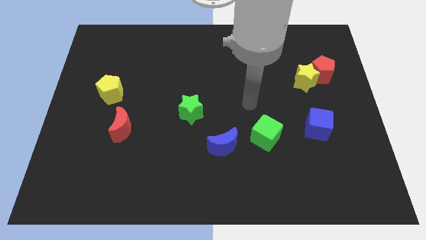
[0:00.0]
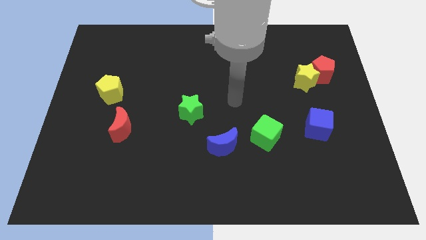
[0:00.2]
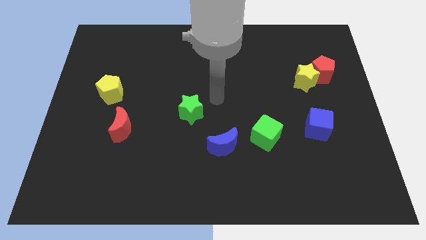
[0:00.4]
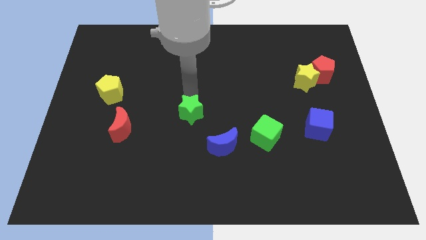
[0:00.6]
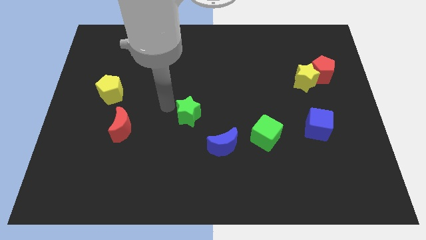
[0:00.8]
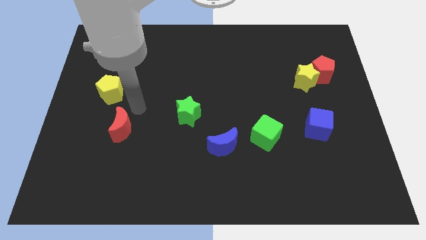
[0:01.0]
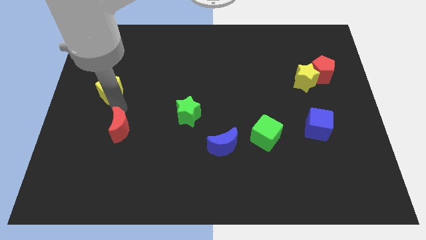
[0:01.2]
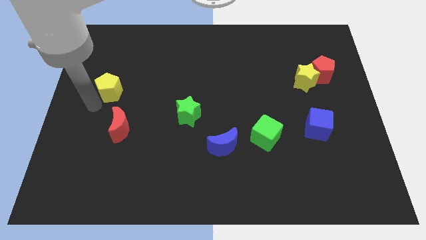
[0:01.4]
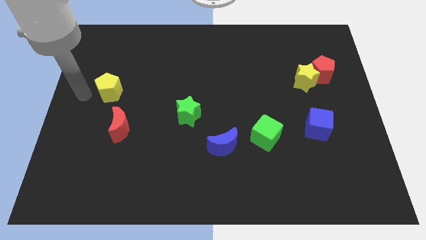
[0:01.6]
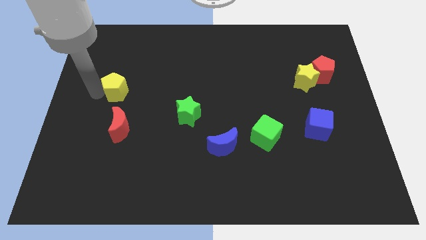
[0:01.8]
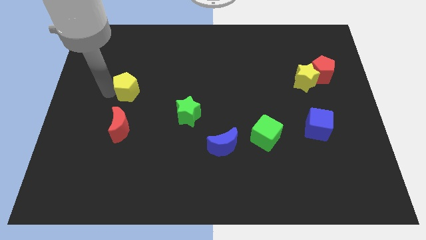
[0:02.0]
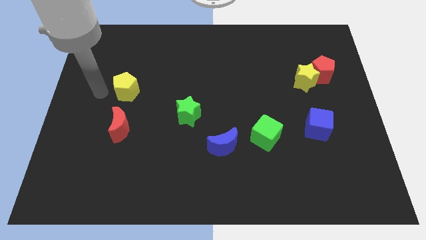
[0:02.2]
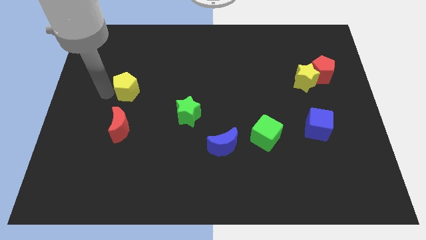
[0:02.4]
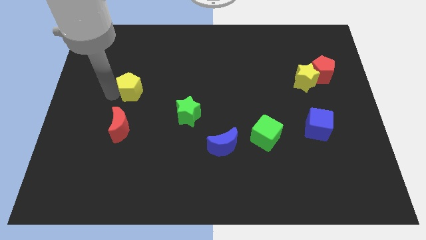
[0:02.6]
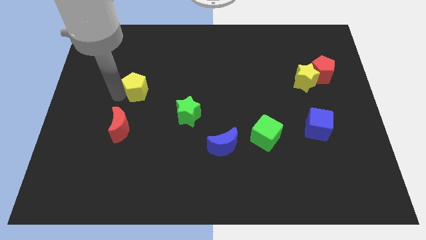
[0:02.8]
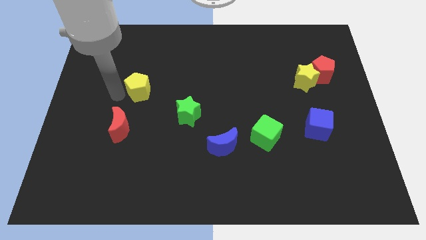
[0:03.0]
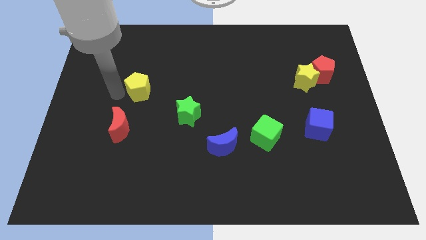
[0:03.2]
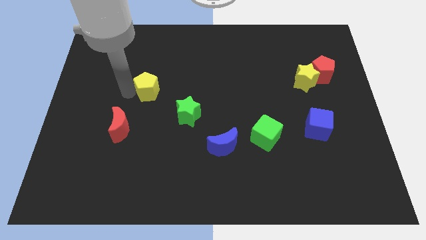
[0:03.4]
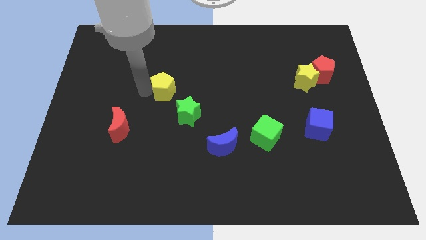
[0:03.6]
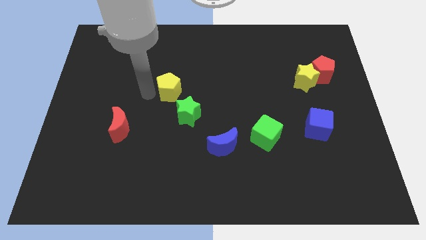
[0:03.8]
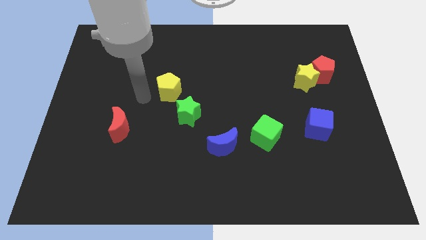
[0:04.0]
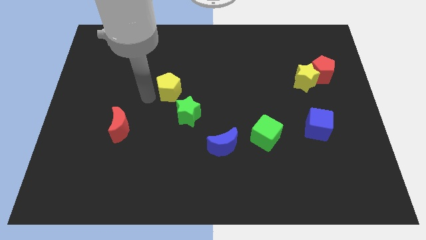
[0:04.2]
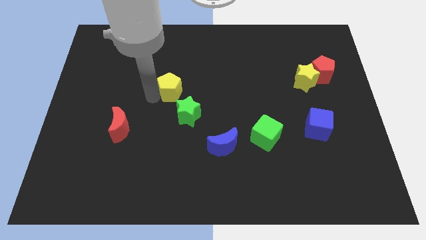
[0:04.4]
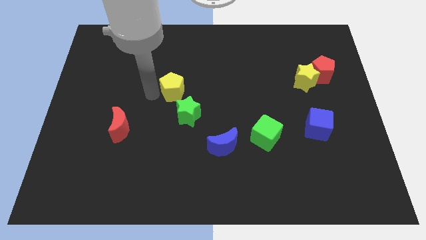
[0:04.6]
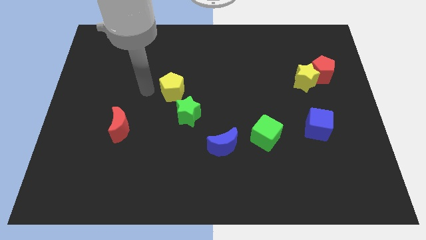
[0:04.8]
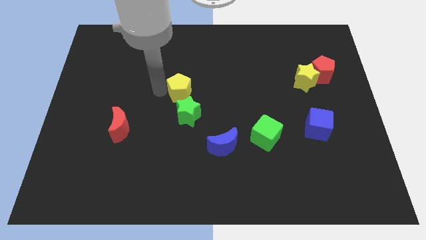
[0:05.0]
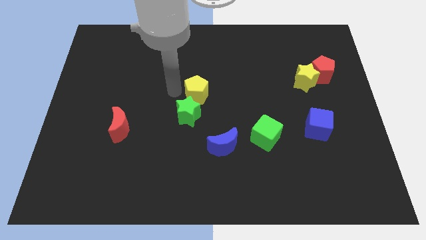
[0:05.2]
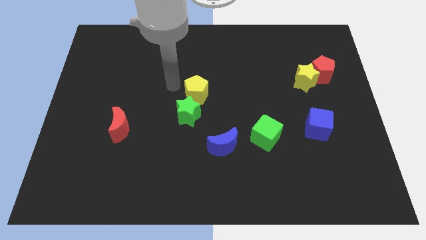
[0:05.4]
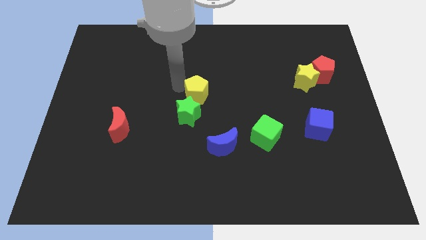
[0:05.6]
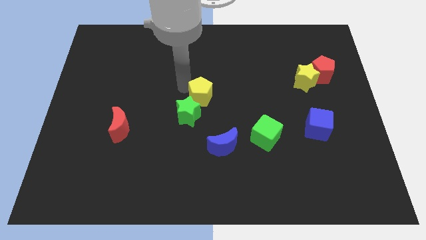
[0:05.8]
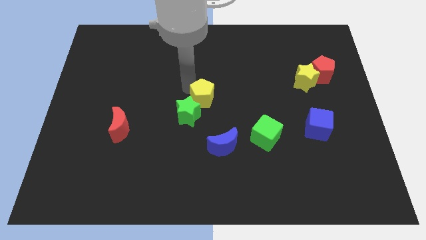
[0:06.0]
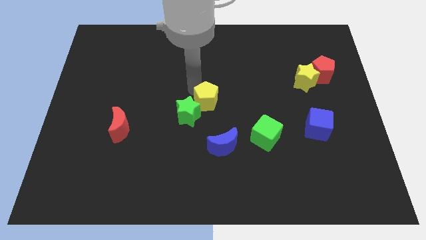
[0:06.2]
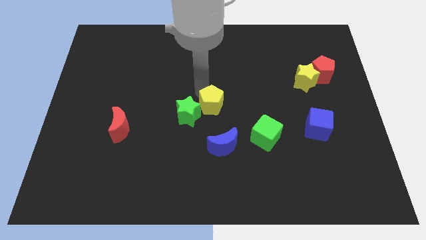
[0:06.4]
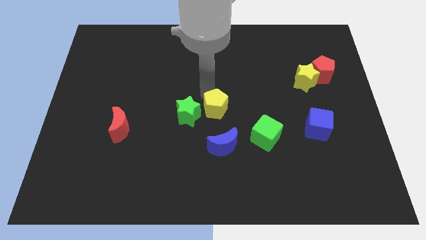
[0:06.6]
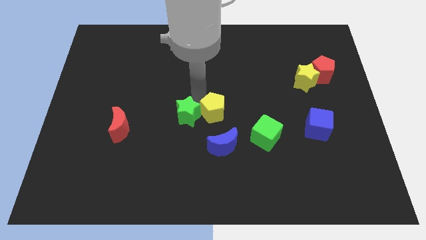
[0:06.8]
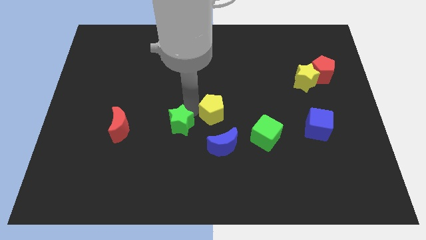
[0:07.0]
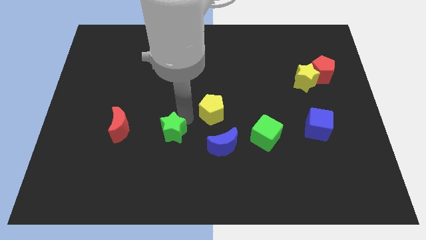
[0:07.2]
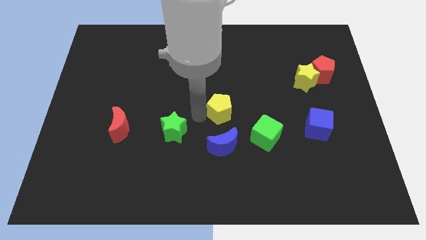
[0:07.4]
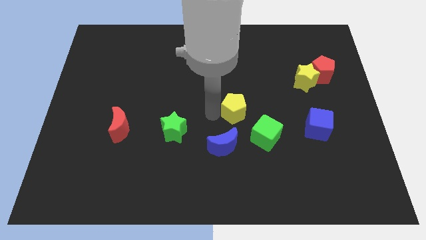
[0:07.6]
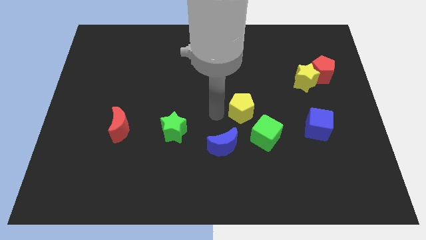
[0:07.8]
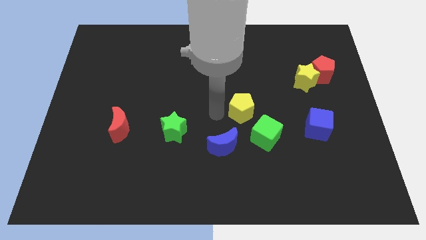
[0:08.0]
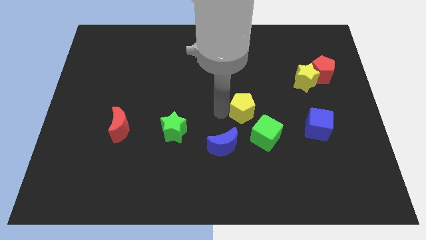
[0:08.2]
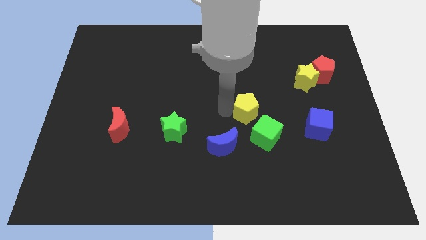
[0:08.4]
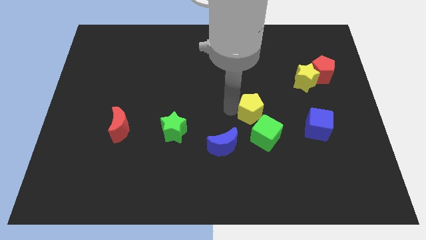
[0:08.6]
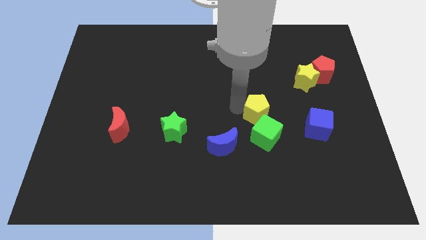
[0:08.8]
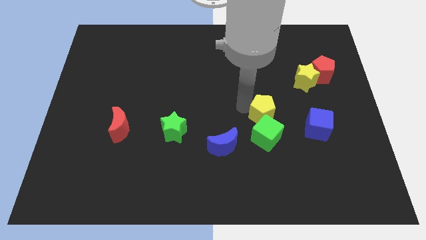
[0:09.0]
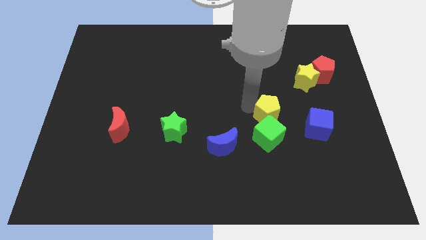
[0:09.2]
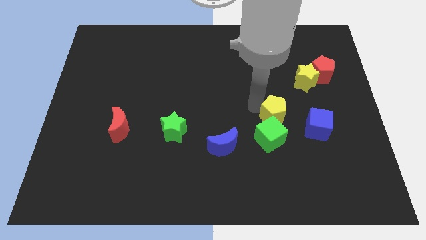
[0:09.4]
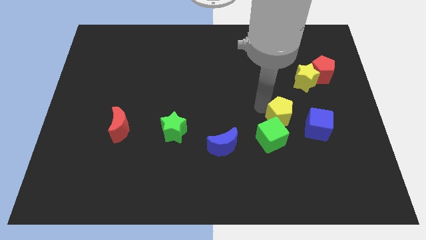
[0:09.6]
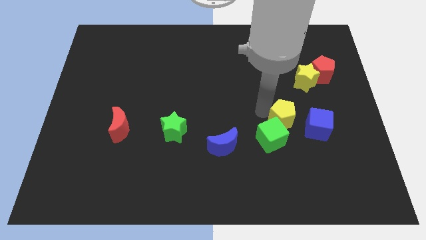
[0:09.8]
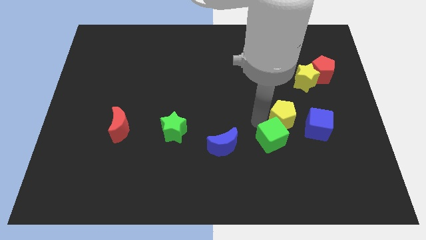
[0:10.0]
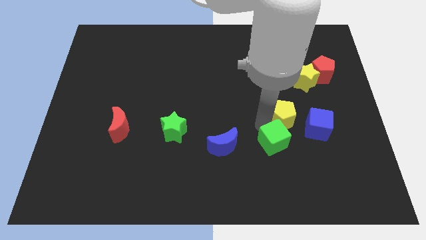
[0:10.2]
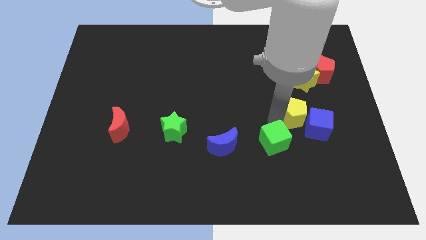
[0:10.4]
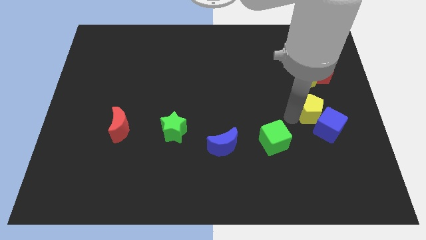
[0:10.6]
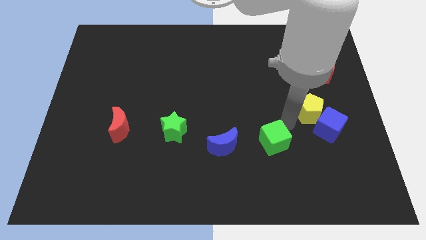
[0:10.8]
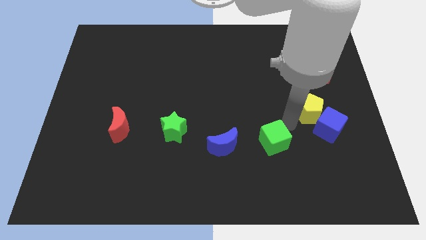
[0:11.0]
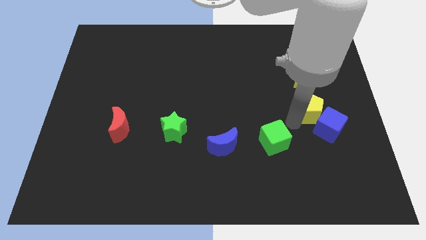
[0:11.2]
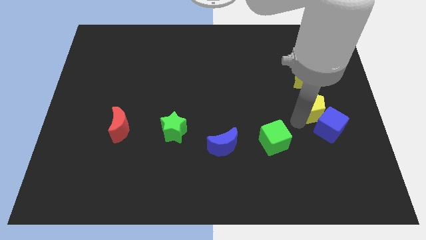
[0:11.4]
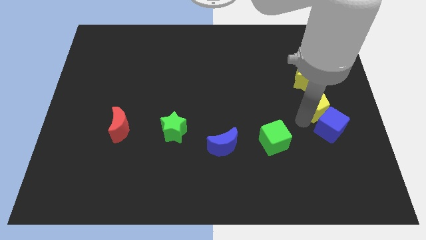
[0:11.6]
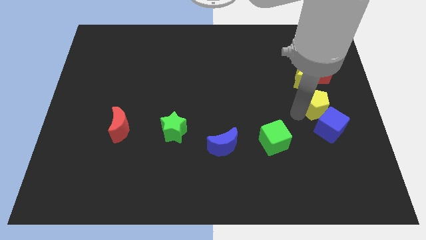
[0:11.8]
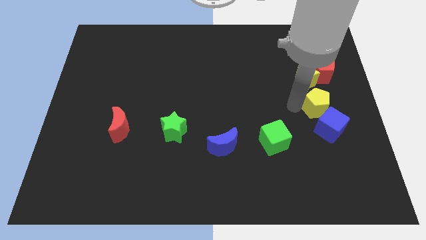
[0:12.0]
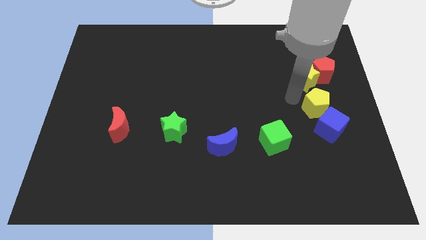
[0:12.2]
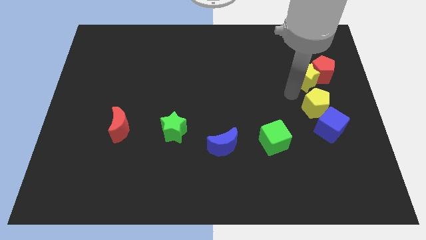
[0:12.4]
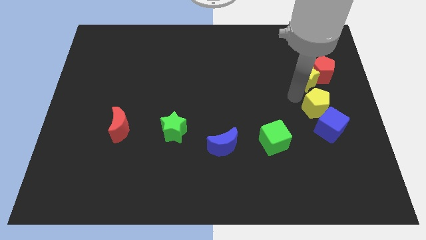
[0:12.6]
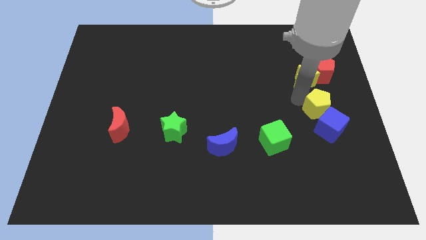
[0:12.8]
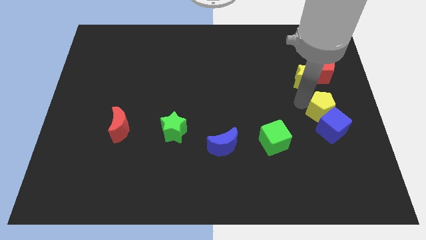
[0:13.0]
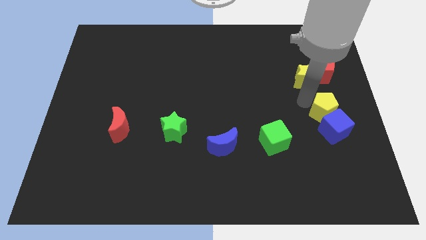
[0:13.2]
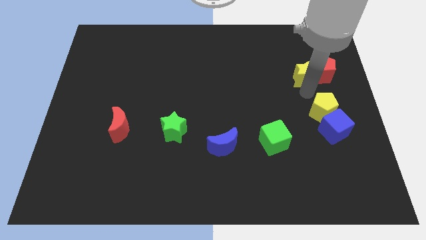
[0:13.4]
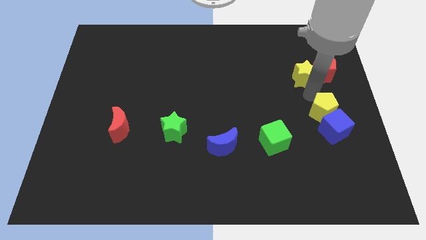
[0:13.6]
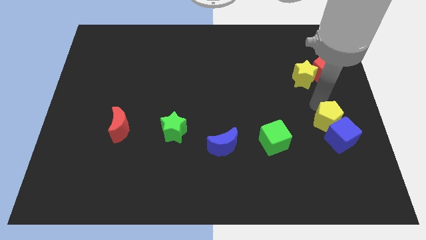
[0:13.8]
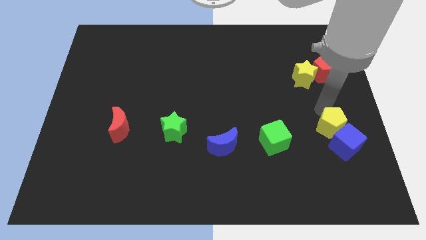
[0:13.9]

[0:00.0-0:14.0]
move the yellow pentagon just right of the green cube
